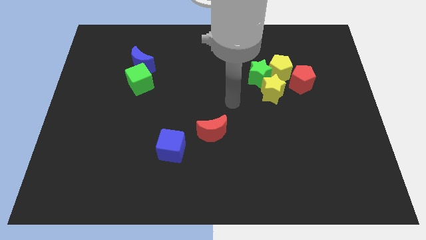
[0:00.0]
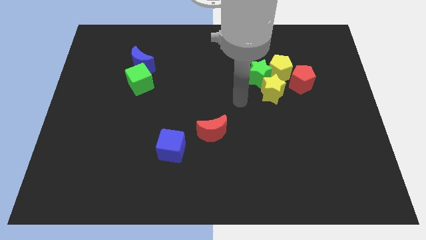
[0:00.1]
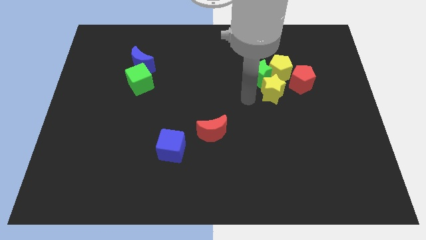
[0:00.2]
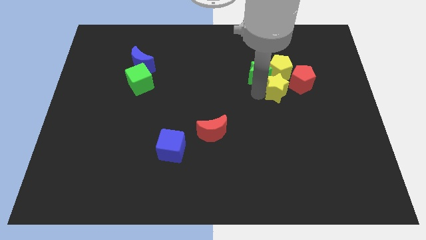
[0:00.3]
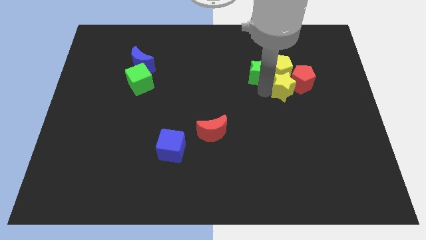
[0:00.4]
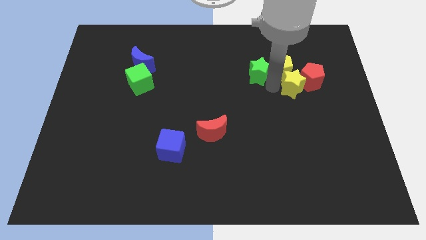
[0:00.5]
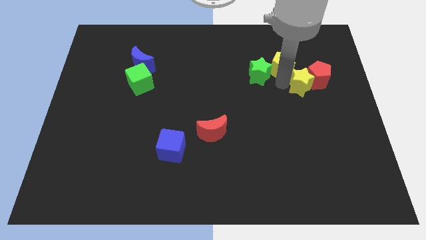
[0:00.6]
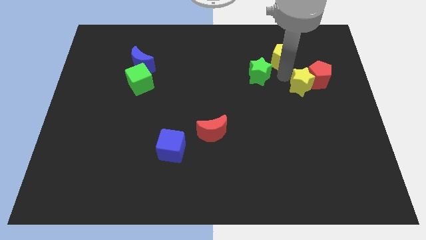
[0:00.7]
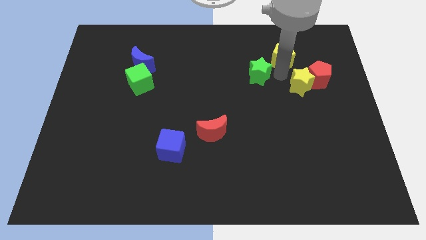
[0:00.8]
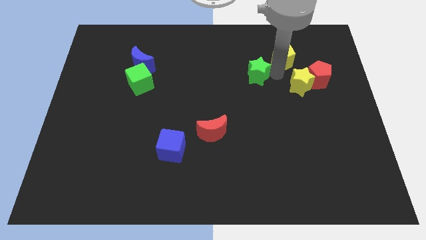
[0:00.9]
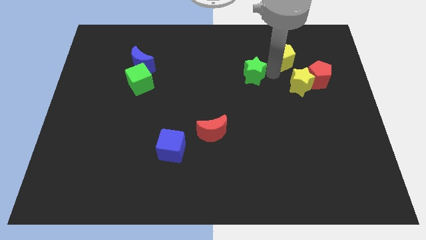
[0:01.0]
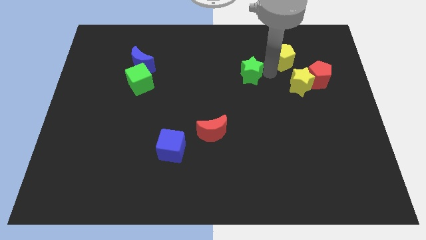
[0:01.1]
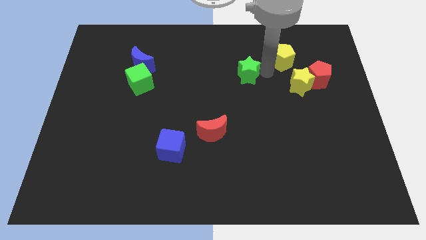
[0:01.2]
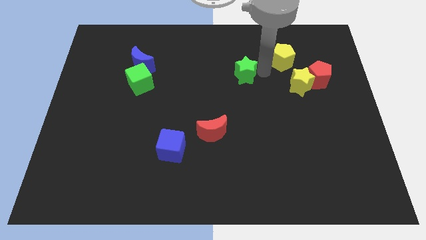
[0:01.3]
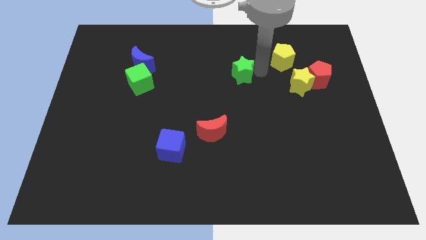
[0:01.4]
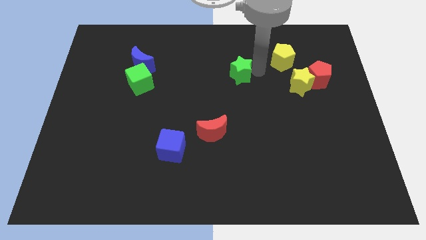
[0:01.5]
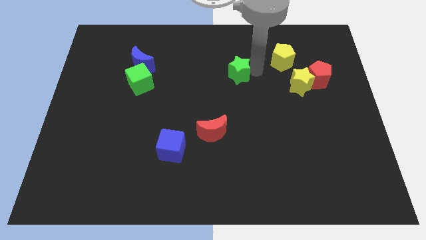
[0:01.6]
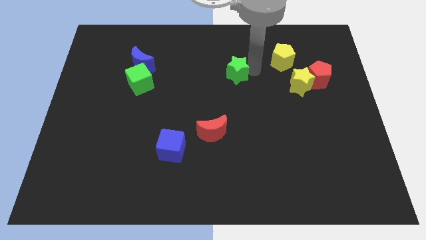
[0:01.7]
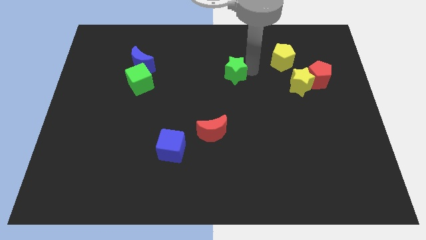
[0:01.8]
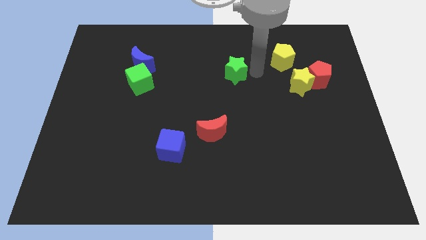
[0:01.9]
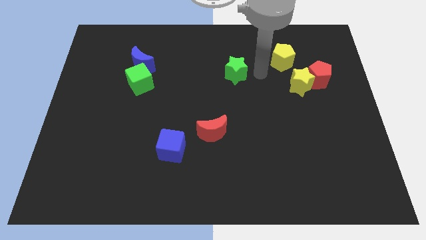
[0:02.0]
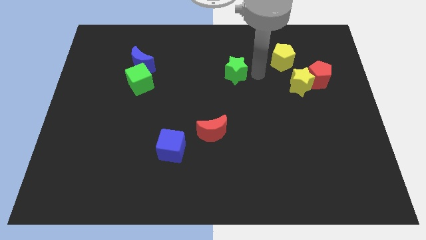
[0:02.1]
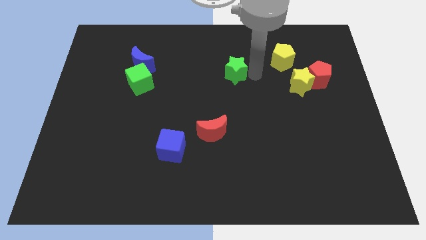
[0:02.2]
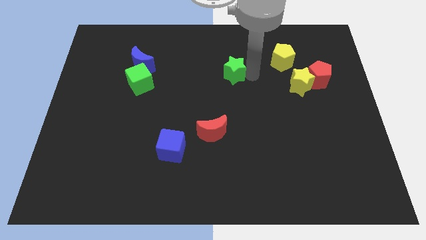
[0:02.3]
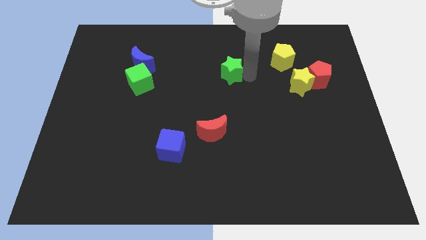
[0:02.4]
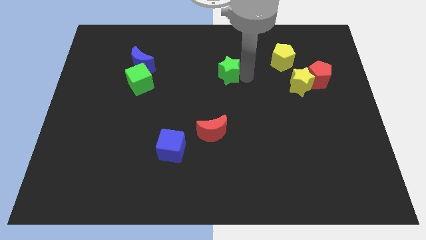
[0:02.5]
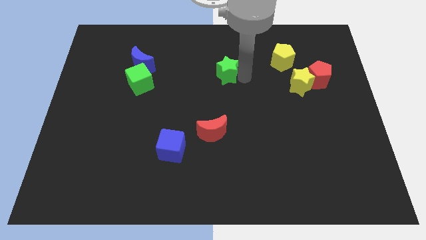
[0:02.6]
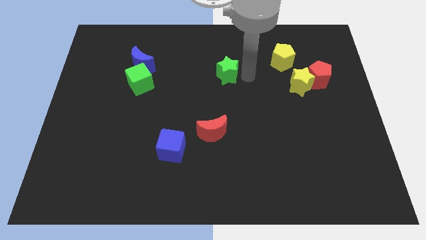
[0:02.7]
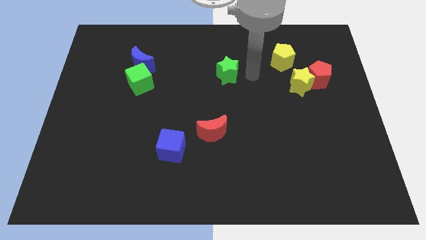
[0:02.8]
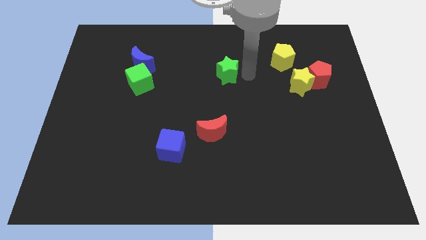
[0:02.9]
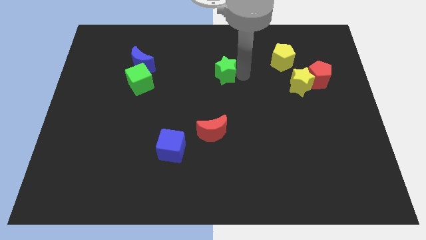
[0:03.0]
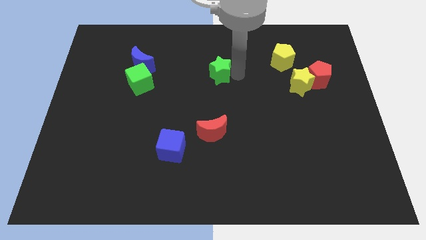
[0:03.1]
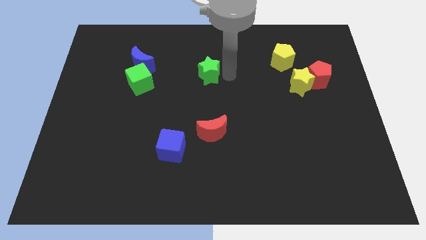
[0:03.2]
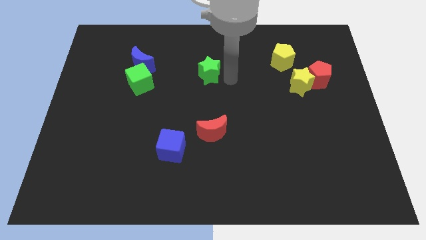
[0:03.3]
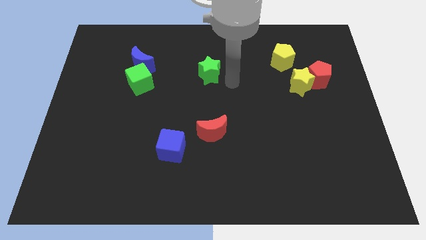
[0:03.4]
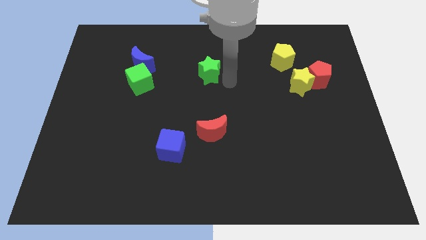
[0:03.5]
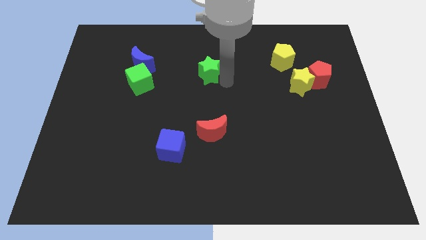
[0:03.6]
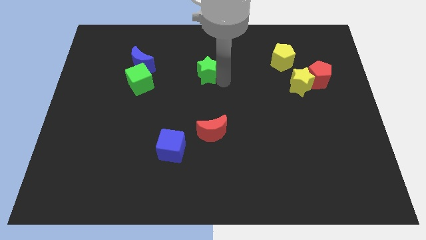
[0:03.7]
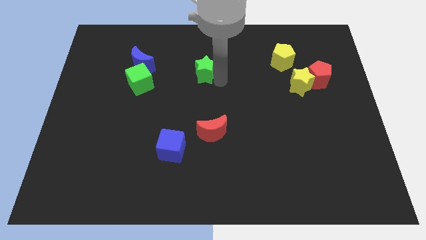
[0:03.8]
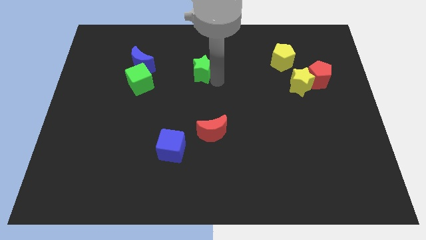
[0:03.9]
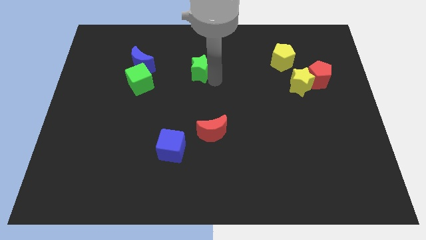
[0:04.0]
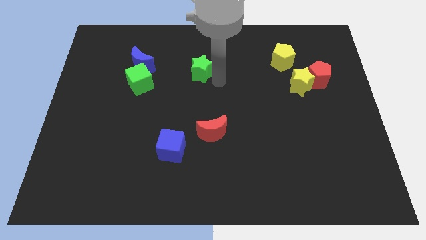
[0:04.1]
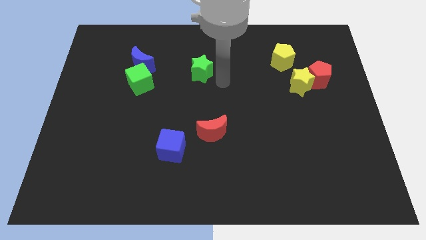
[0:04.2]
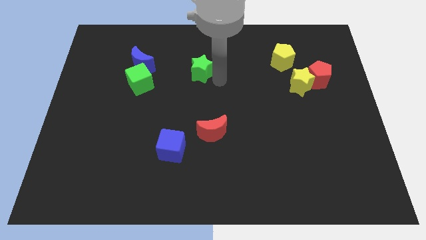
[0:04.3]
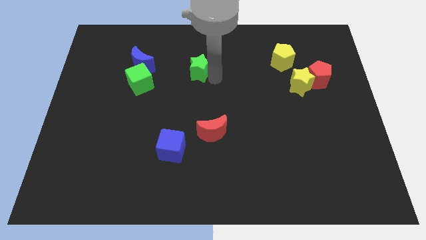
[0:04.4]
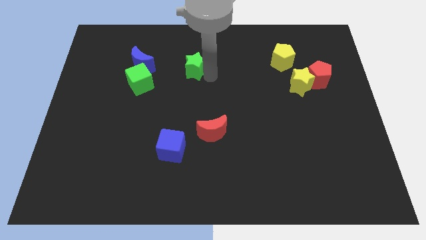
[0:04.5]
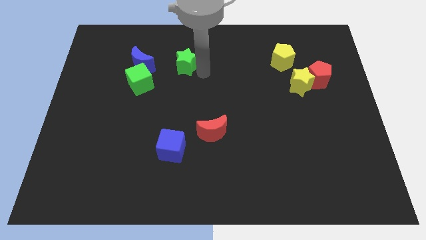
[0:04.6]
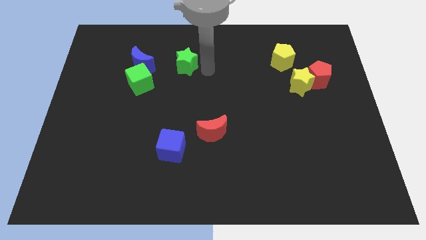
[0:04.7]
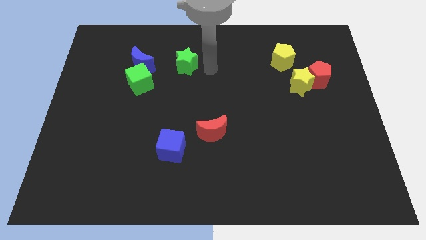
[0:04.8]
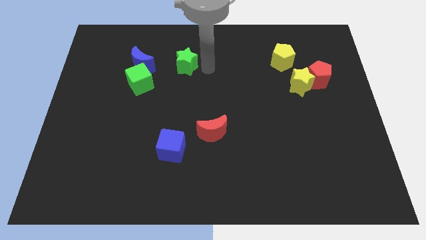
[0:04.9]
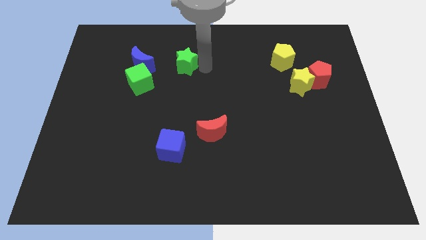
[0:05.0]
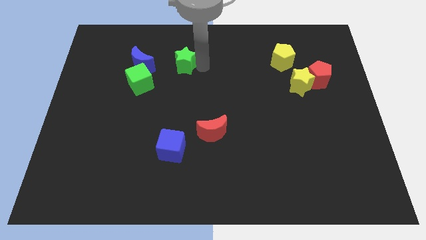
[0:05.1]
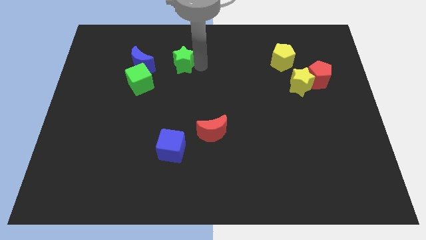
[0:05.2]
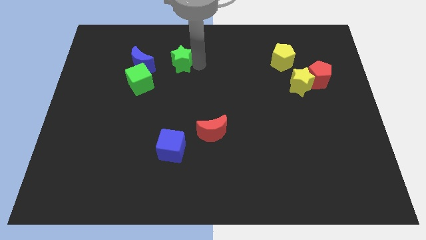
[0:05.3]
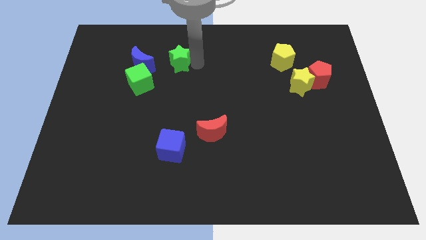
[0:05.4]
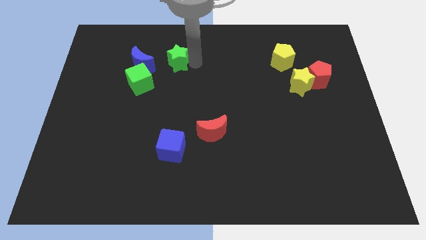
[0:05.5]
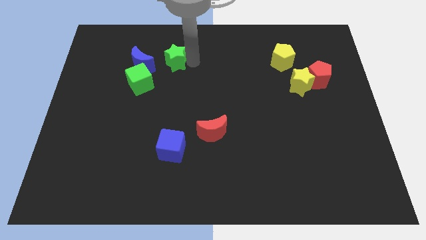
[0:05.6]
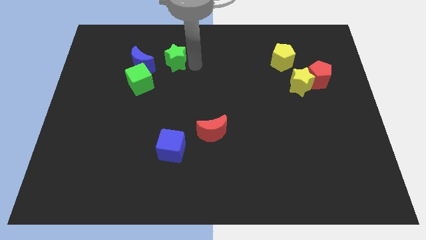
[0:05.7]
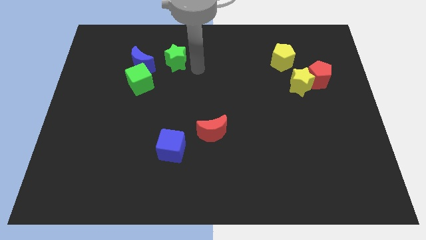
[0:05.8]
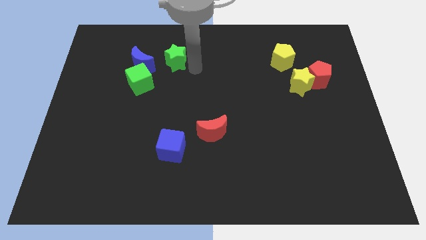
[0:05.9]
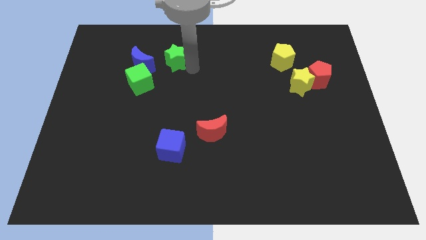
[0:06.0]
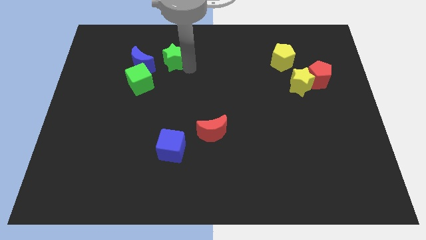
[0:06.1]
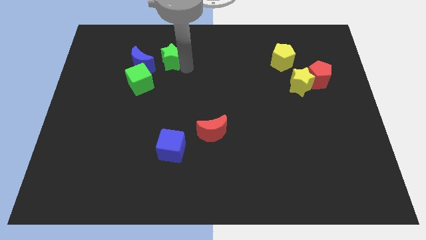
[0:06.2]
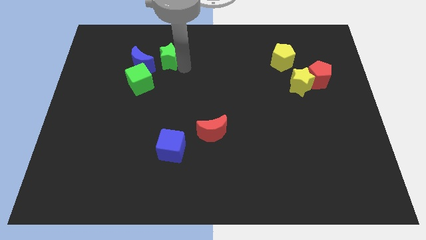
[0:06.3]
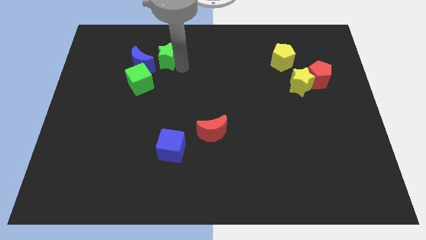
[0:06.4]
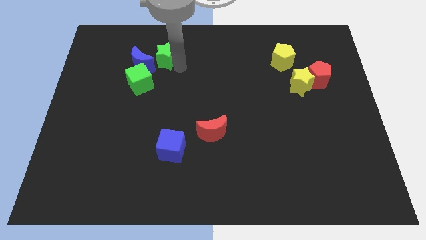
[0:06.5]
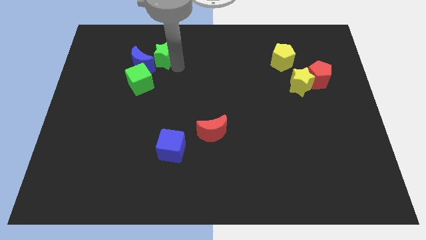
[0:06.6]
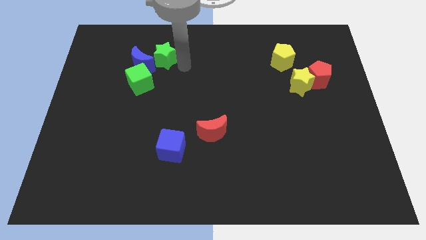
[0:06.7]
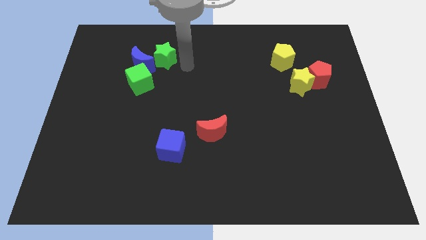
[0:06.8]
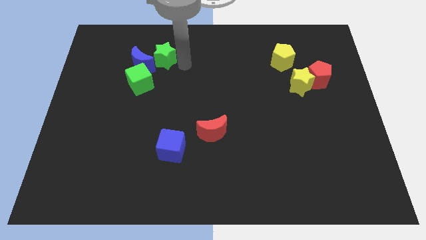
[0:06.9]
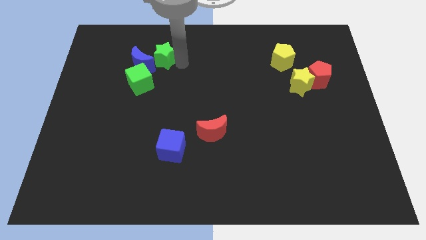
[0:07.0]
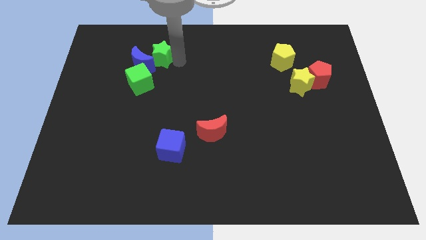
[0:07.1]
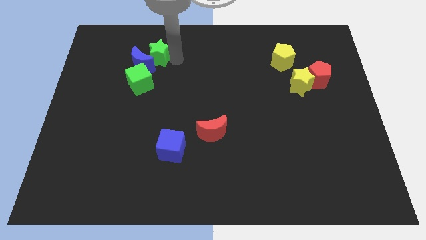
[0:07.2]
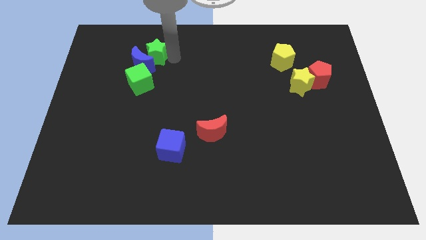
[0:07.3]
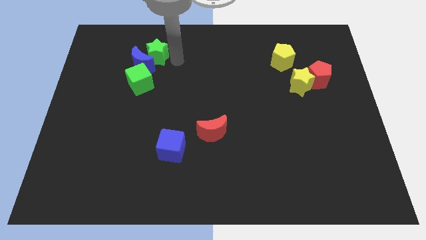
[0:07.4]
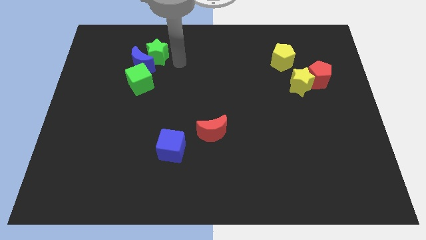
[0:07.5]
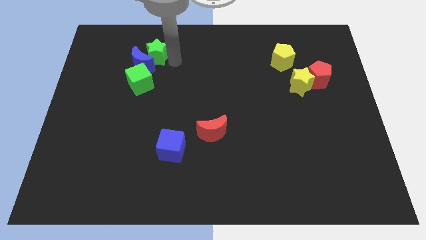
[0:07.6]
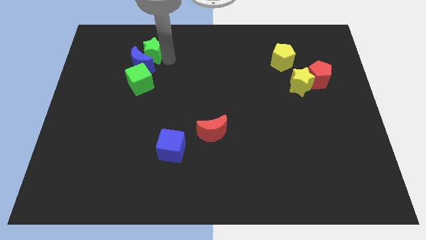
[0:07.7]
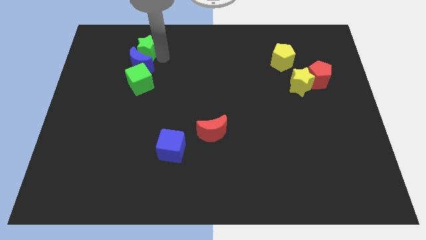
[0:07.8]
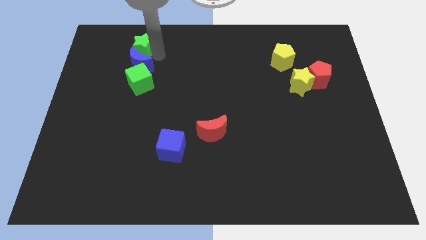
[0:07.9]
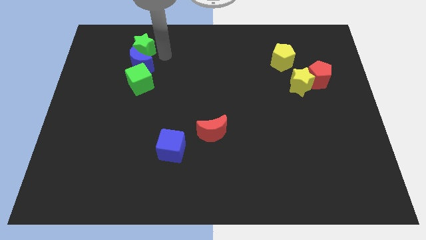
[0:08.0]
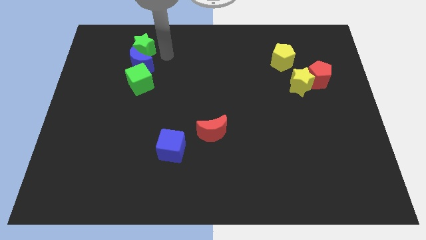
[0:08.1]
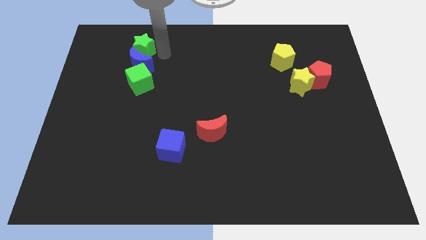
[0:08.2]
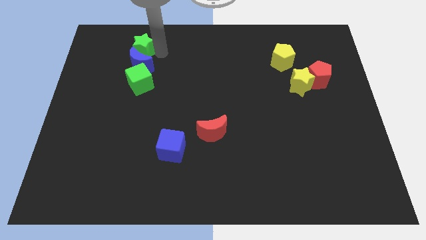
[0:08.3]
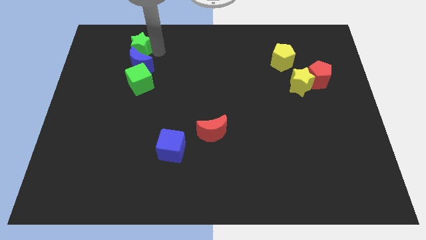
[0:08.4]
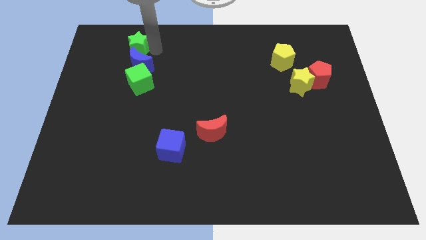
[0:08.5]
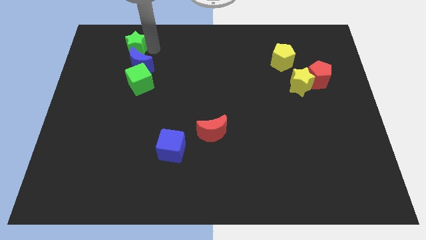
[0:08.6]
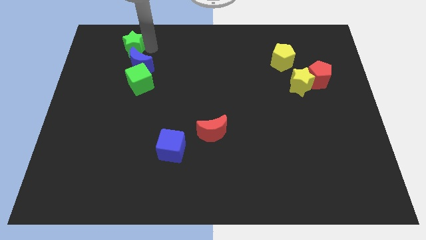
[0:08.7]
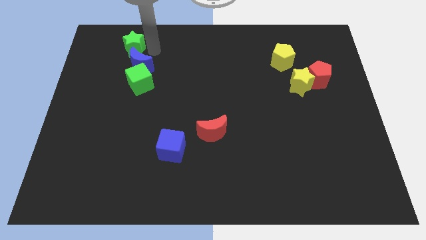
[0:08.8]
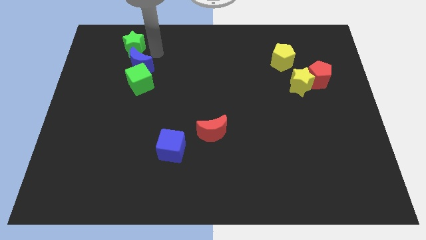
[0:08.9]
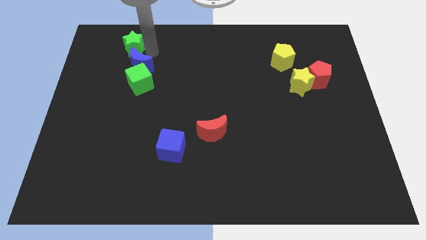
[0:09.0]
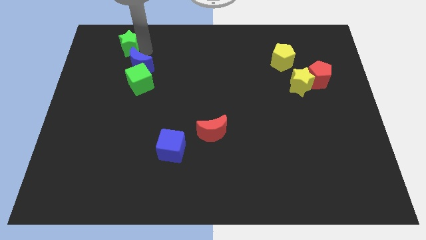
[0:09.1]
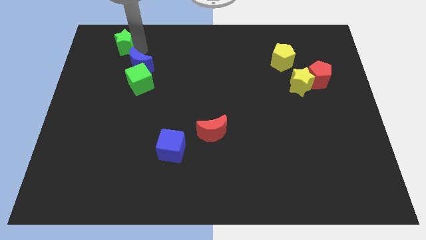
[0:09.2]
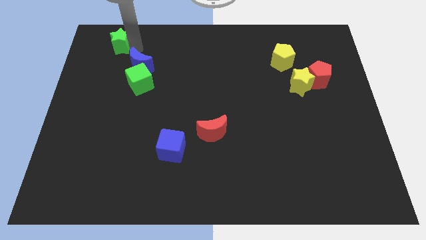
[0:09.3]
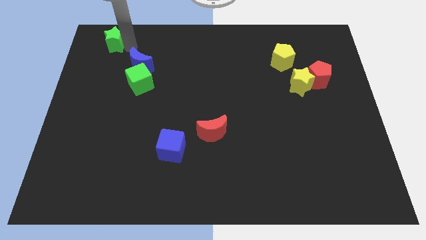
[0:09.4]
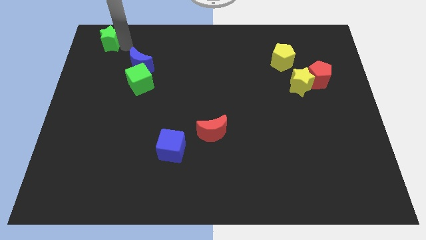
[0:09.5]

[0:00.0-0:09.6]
slide the green star to the upper left corner
